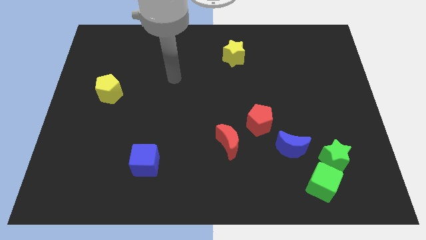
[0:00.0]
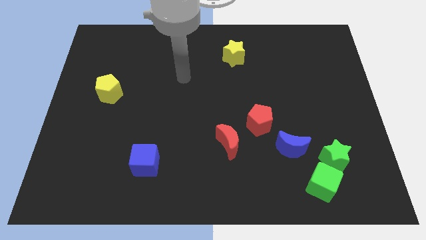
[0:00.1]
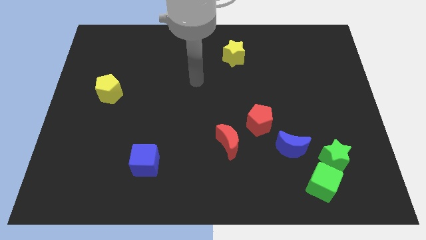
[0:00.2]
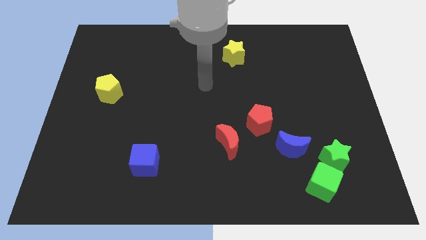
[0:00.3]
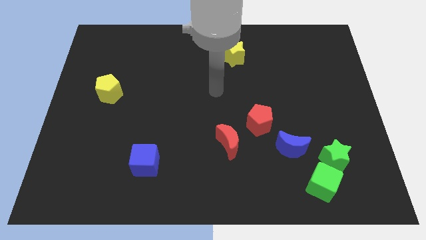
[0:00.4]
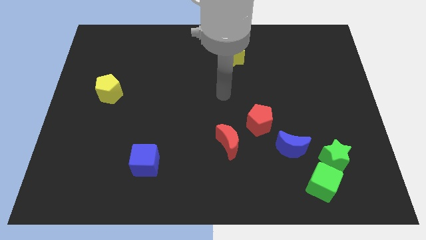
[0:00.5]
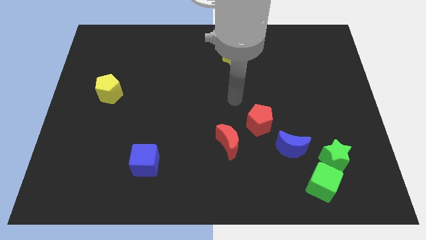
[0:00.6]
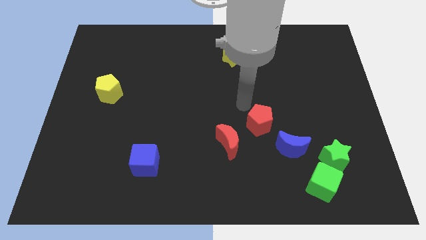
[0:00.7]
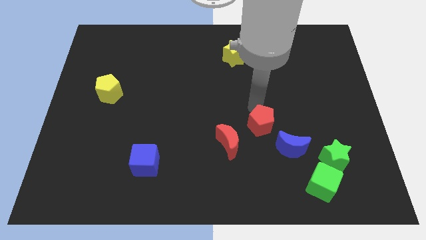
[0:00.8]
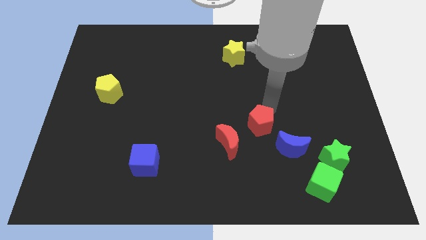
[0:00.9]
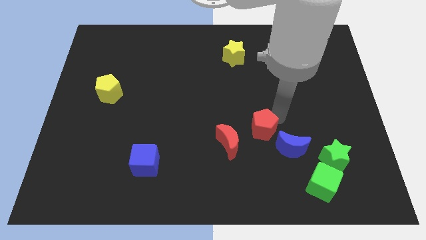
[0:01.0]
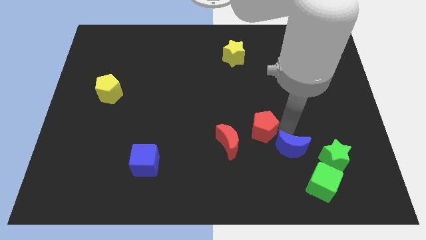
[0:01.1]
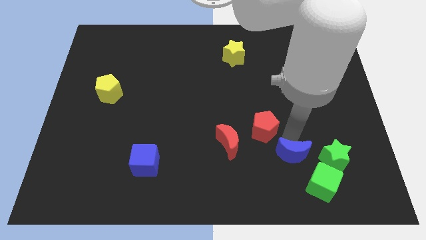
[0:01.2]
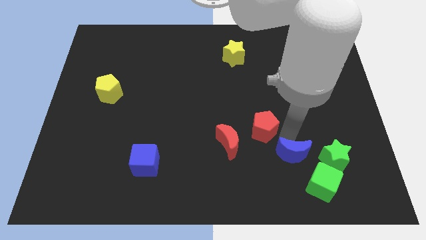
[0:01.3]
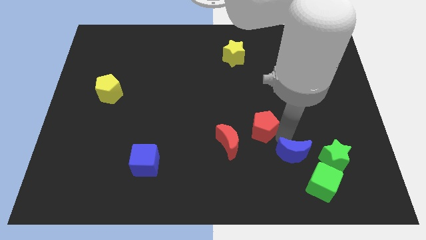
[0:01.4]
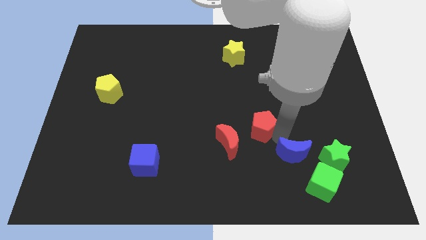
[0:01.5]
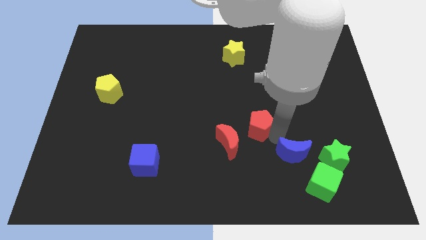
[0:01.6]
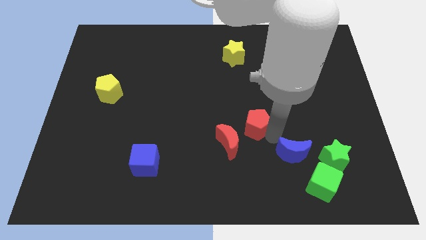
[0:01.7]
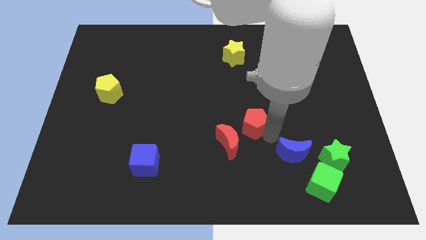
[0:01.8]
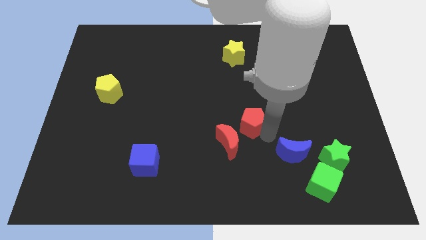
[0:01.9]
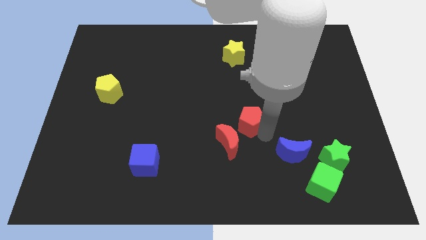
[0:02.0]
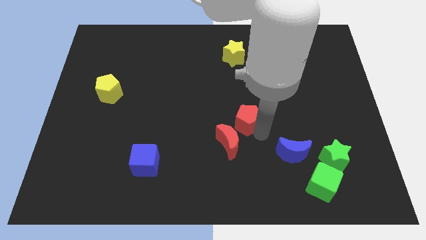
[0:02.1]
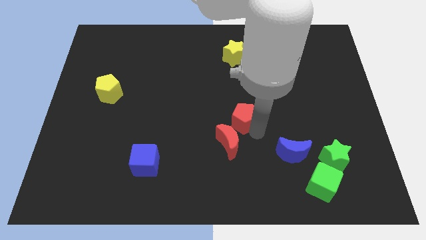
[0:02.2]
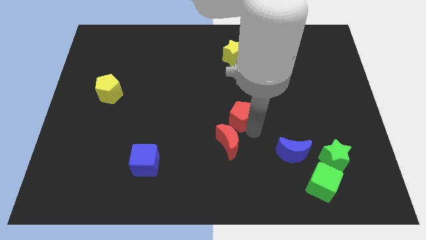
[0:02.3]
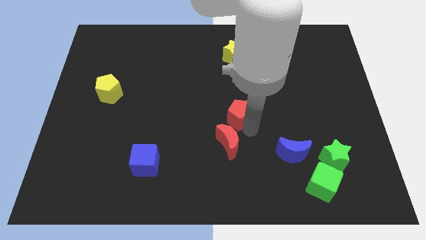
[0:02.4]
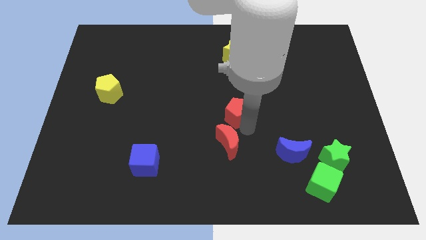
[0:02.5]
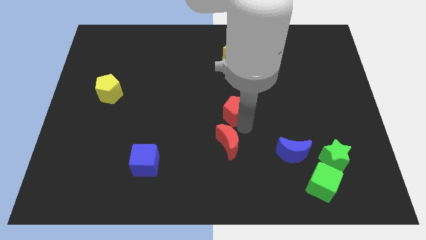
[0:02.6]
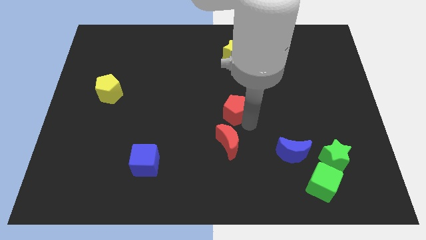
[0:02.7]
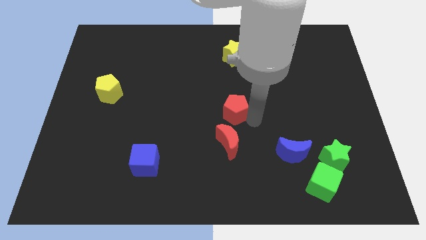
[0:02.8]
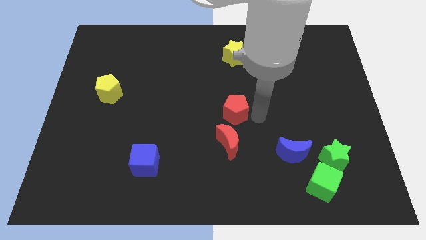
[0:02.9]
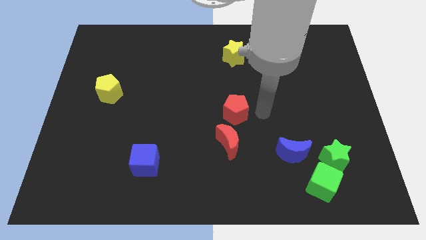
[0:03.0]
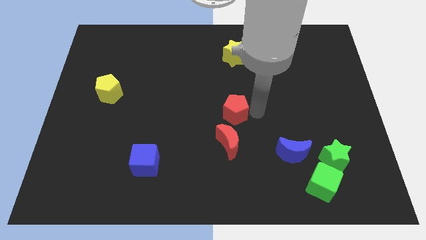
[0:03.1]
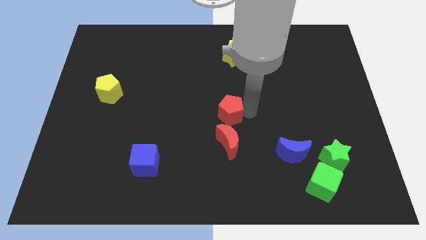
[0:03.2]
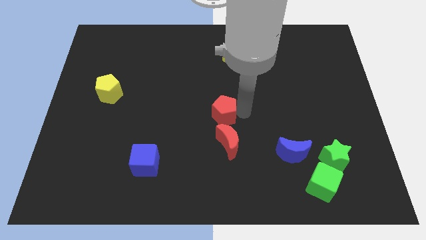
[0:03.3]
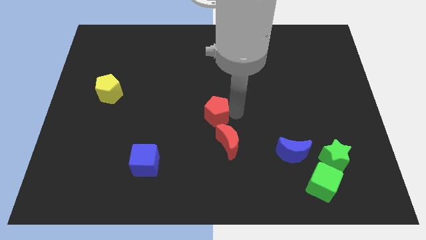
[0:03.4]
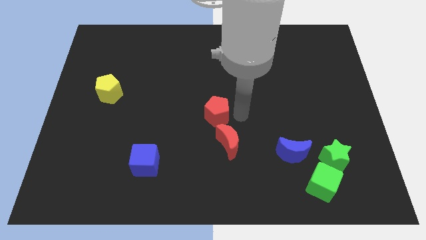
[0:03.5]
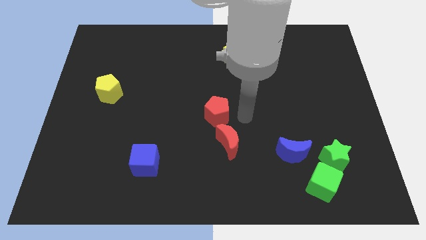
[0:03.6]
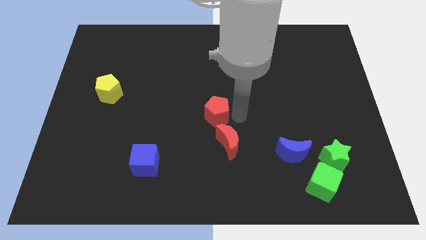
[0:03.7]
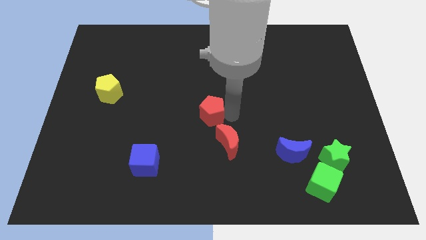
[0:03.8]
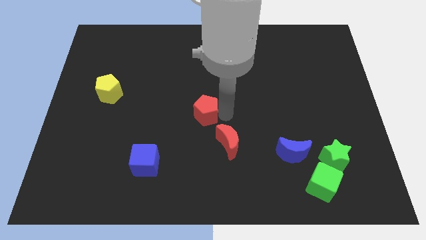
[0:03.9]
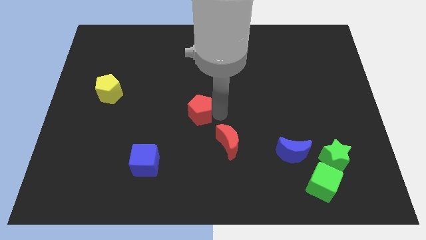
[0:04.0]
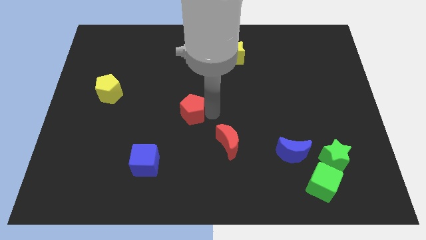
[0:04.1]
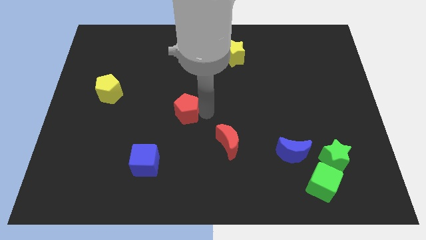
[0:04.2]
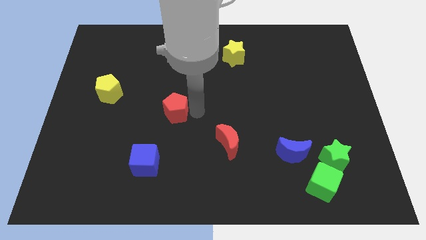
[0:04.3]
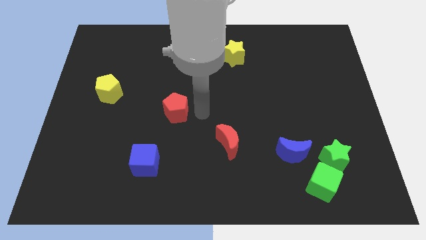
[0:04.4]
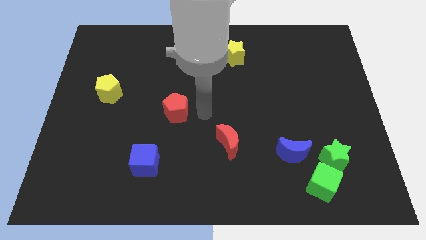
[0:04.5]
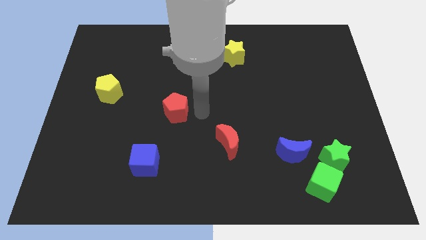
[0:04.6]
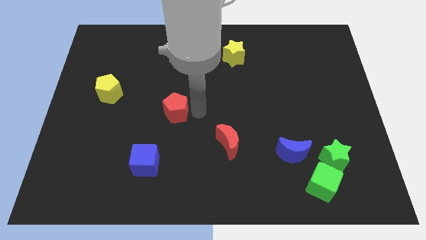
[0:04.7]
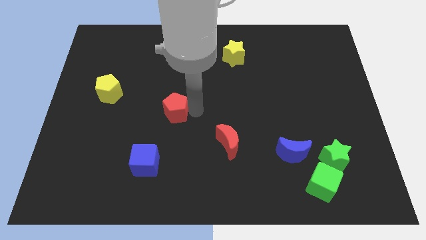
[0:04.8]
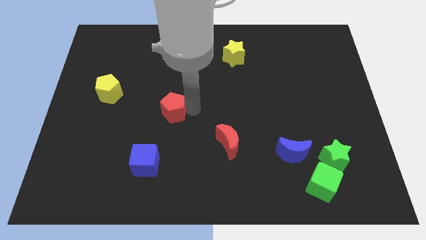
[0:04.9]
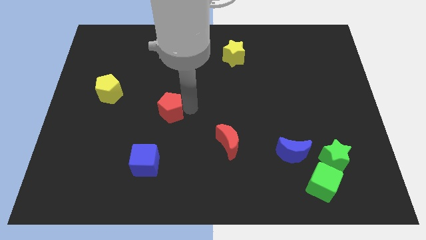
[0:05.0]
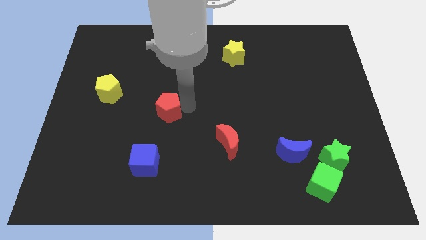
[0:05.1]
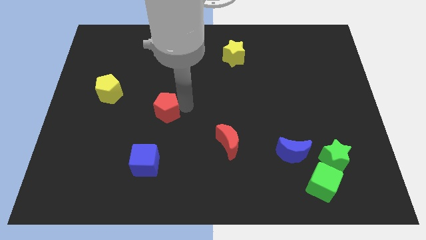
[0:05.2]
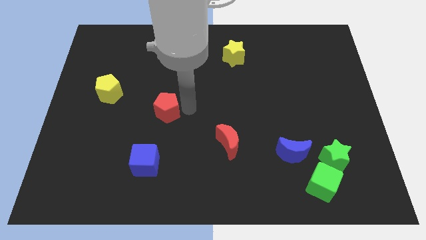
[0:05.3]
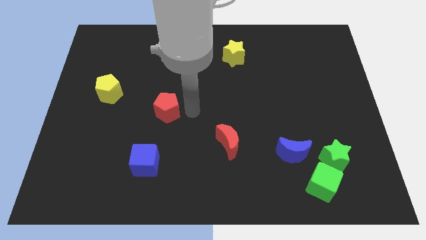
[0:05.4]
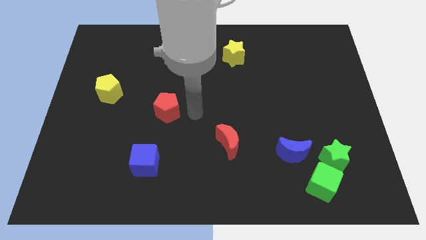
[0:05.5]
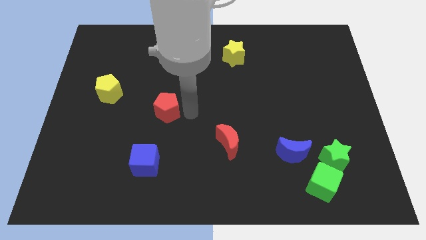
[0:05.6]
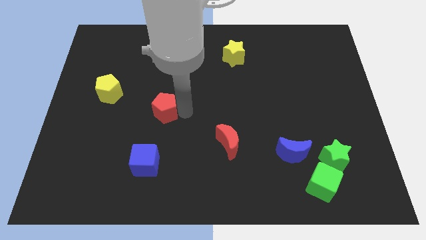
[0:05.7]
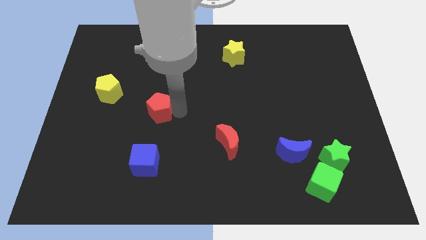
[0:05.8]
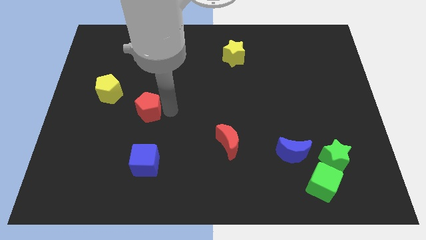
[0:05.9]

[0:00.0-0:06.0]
put the red pentagon to the bottom right side of the yellow pentagon

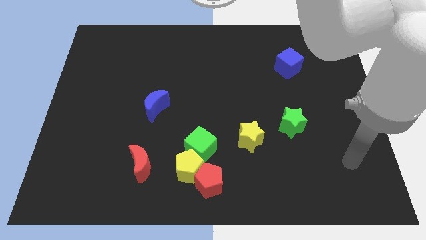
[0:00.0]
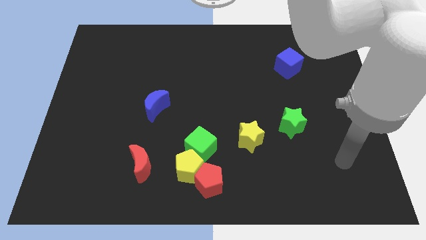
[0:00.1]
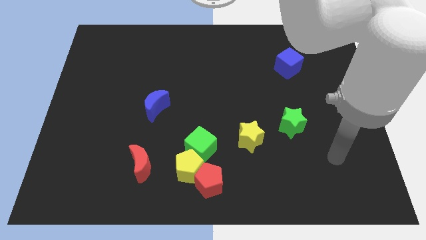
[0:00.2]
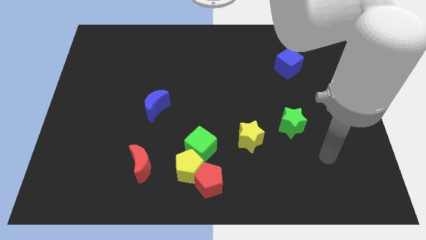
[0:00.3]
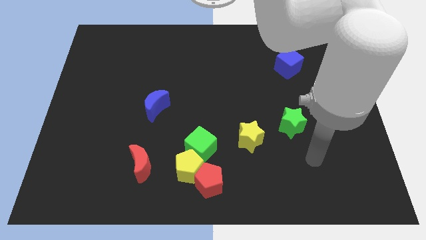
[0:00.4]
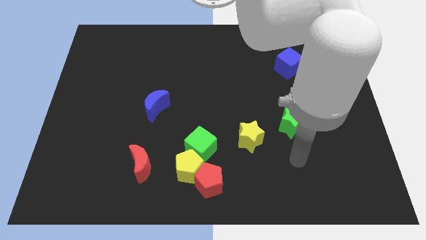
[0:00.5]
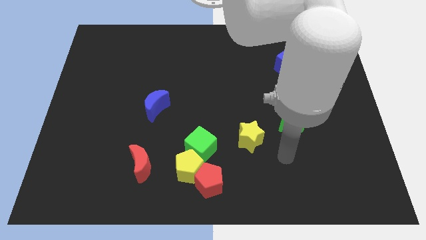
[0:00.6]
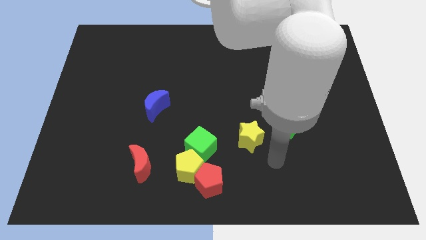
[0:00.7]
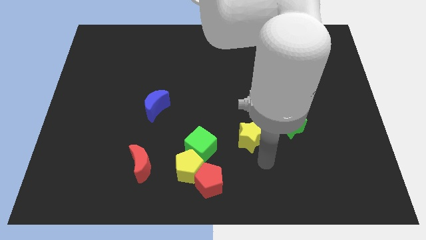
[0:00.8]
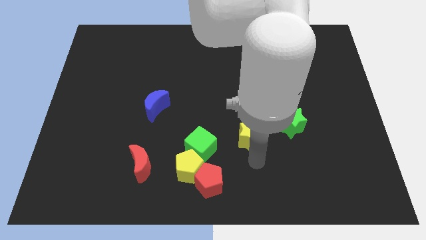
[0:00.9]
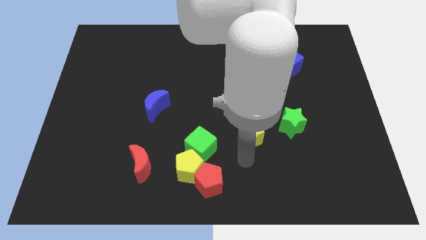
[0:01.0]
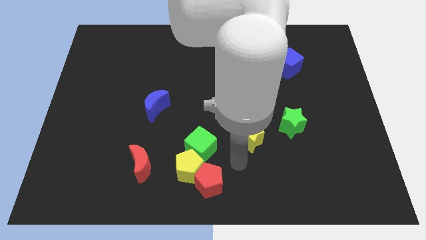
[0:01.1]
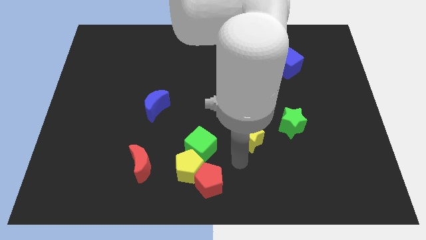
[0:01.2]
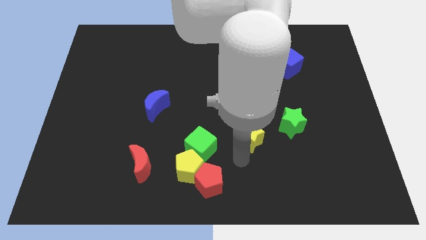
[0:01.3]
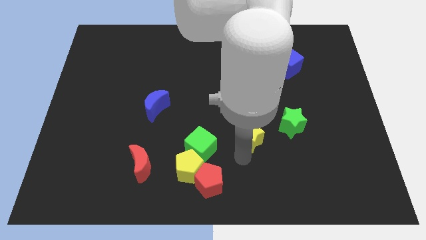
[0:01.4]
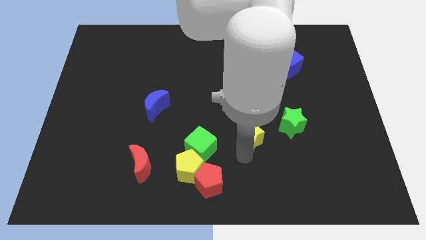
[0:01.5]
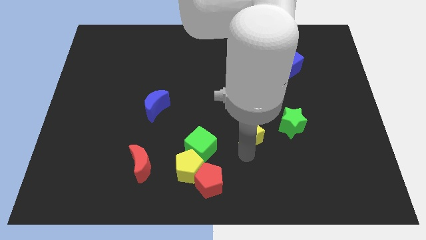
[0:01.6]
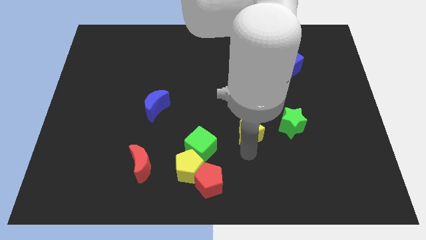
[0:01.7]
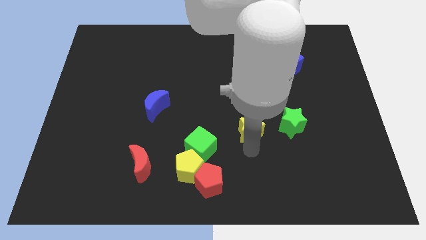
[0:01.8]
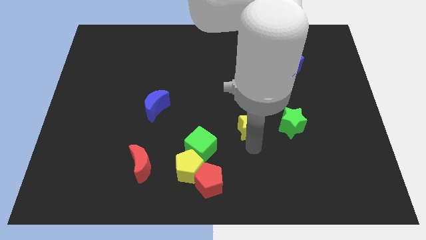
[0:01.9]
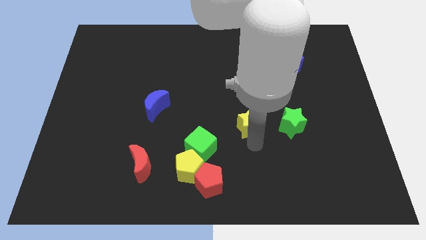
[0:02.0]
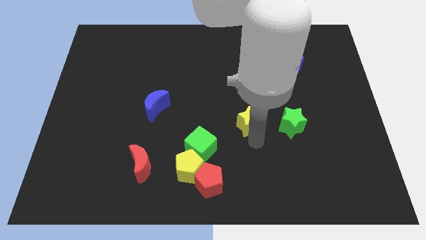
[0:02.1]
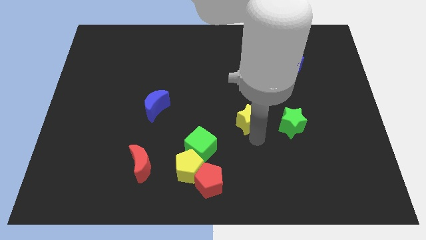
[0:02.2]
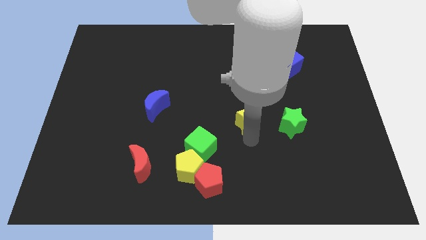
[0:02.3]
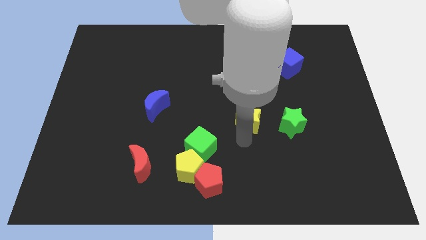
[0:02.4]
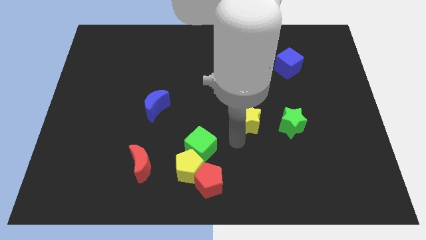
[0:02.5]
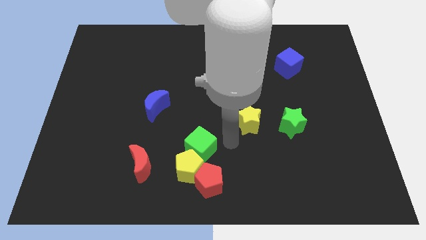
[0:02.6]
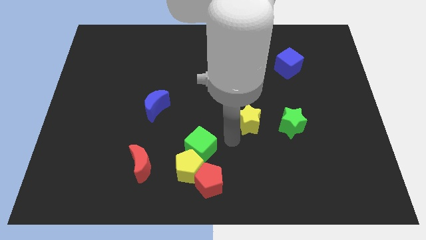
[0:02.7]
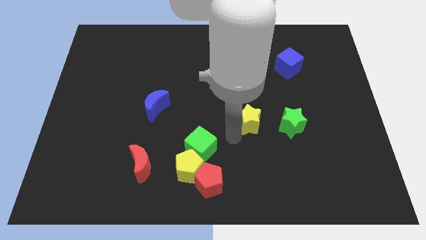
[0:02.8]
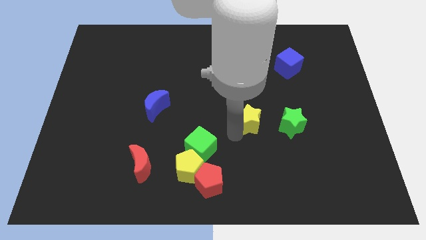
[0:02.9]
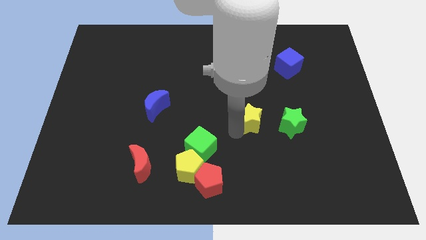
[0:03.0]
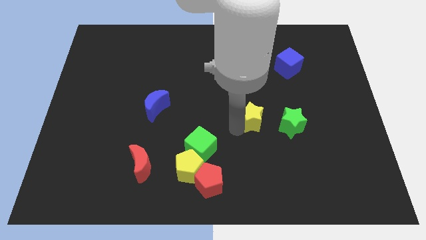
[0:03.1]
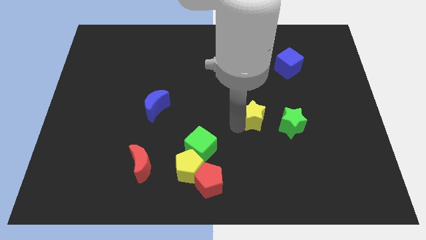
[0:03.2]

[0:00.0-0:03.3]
put the yellow star to the top left side of the green star
